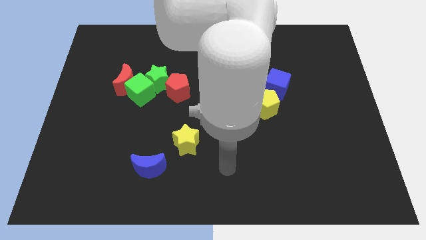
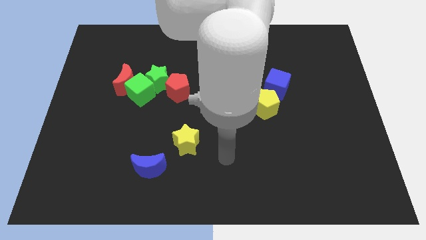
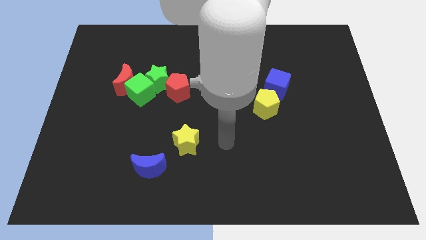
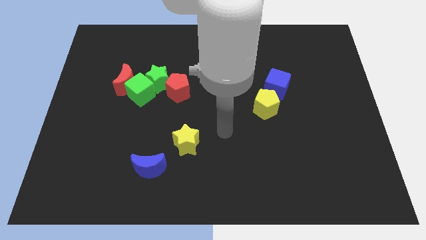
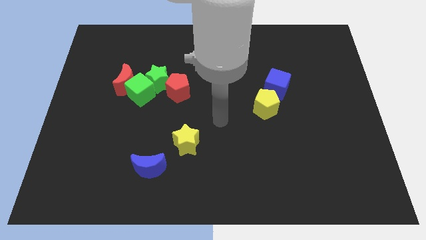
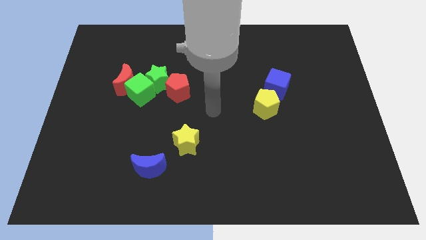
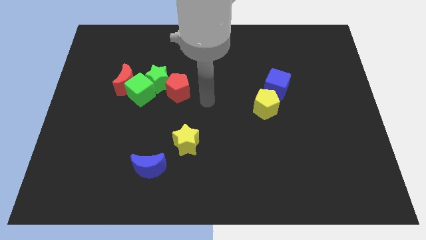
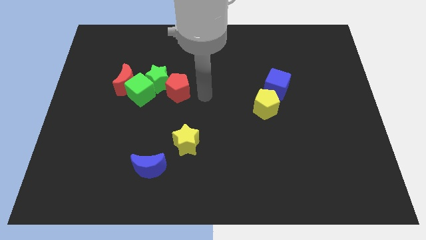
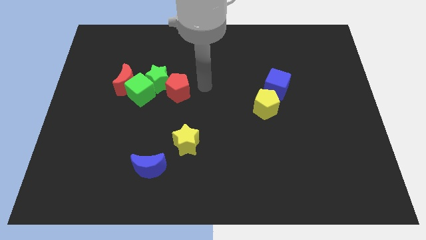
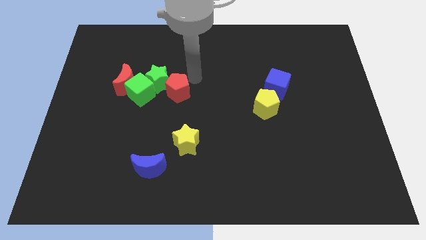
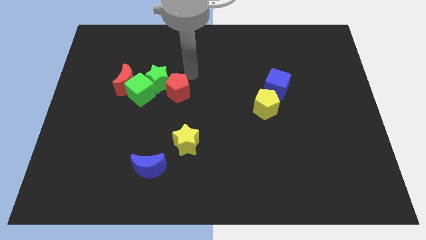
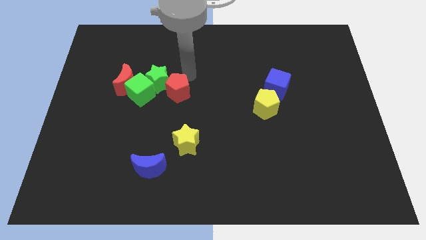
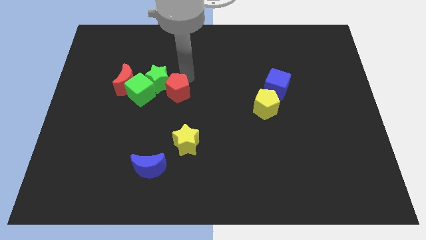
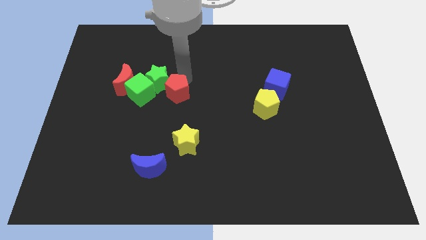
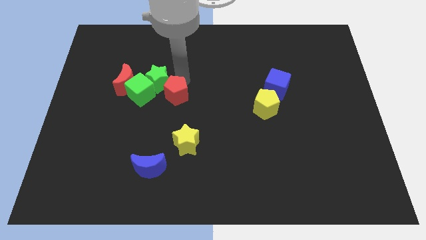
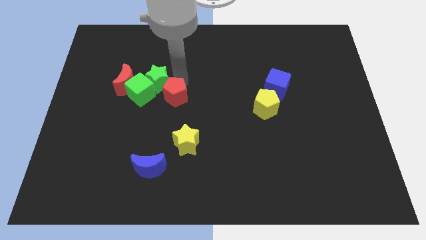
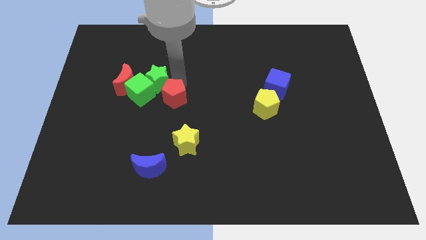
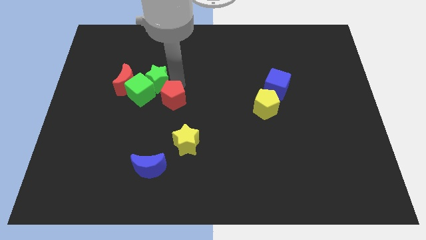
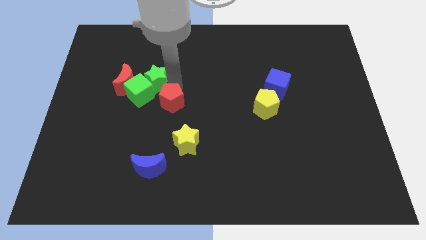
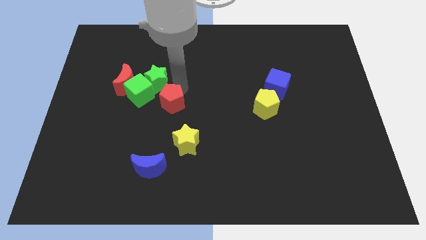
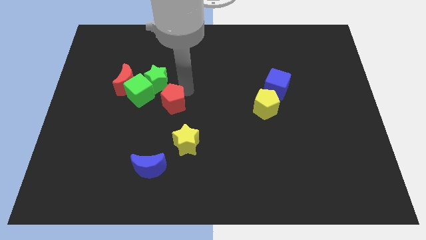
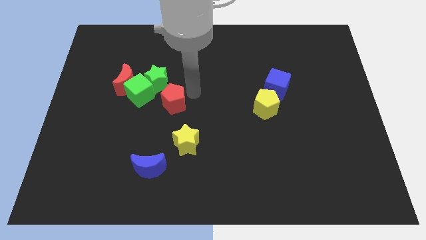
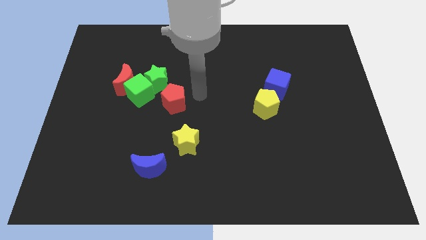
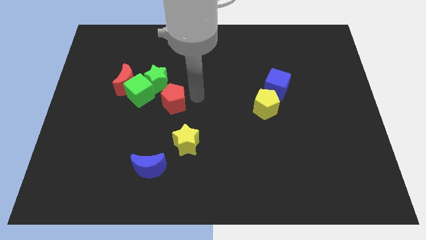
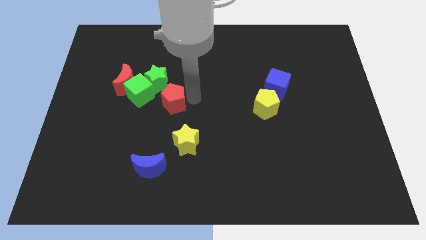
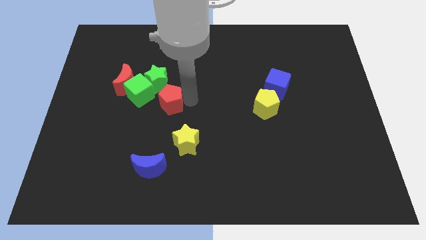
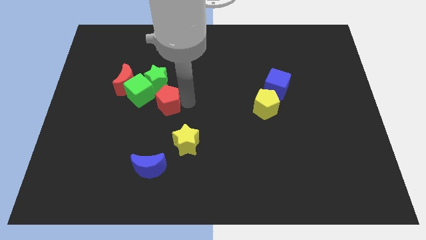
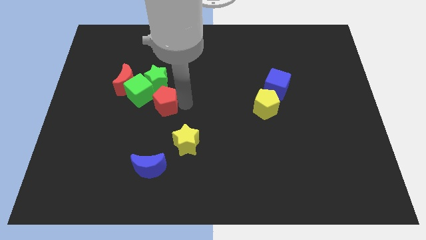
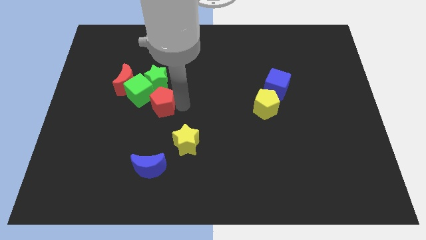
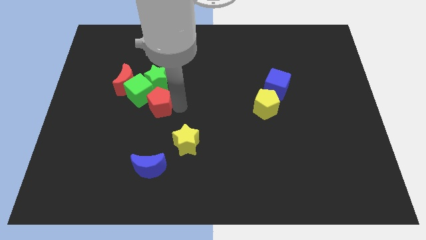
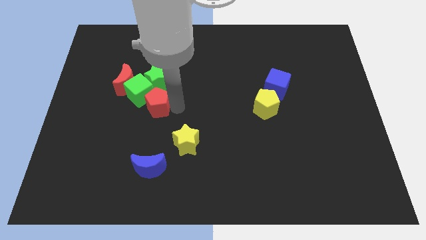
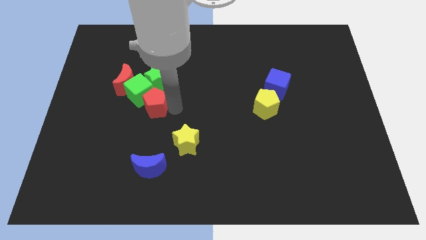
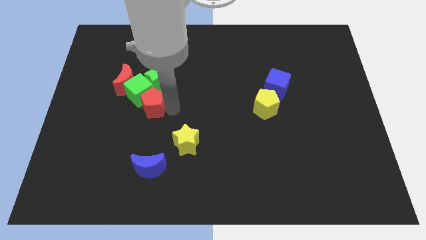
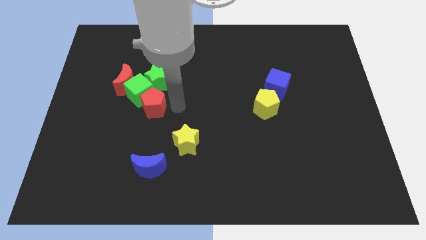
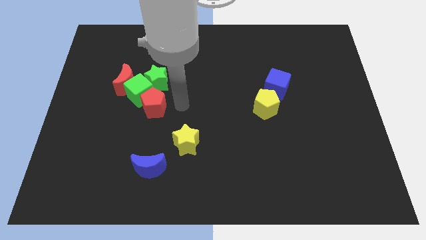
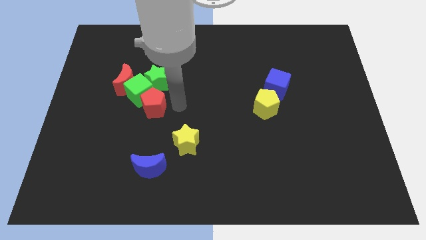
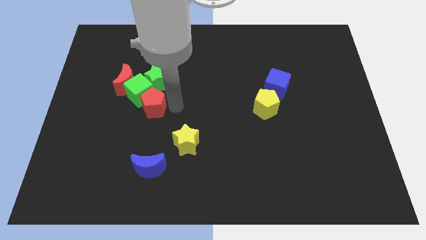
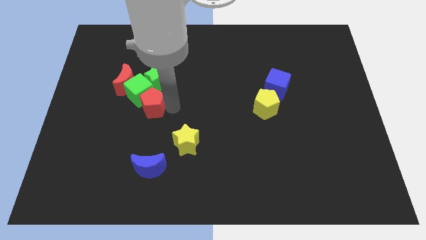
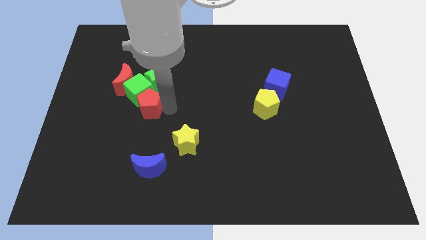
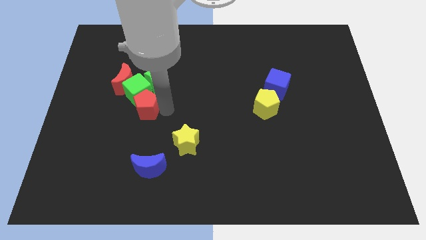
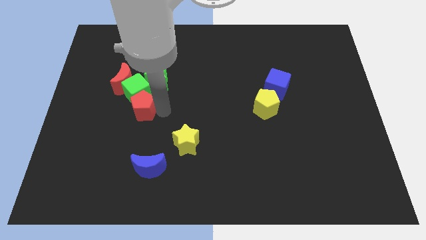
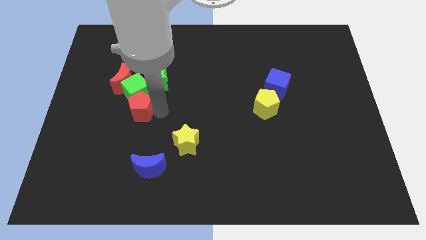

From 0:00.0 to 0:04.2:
slightly slide the red pentagon left

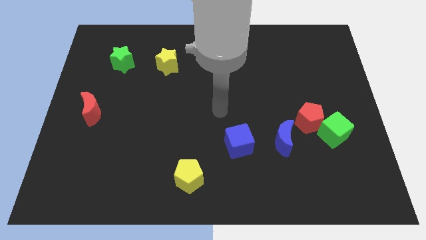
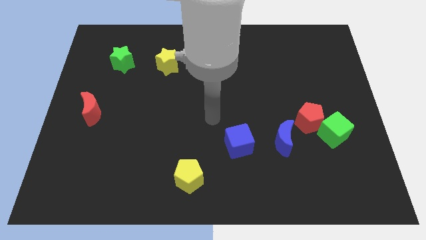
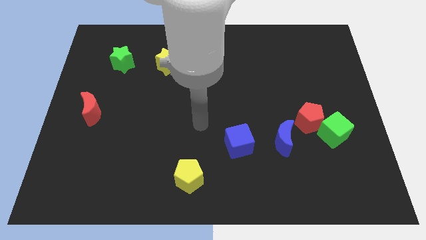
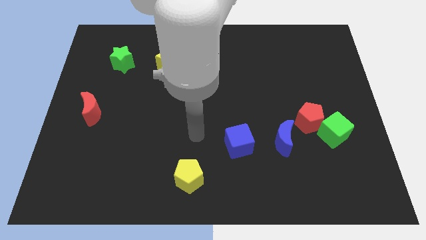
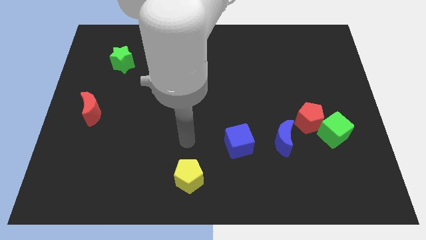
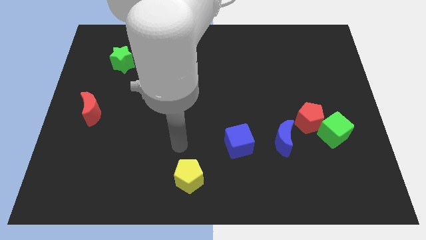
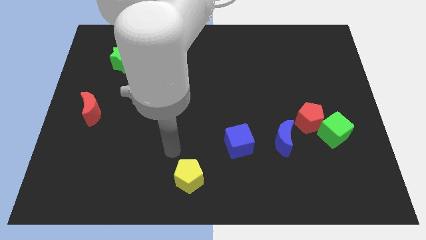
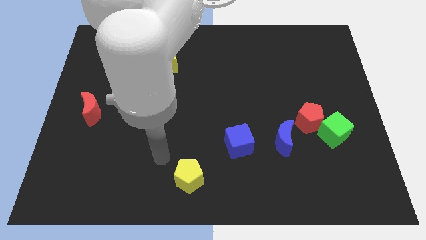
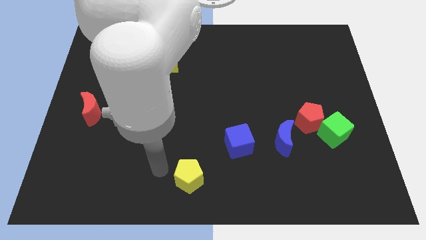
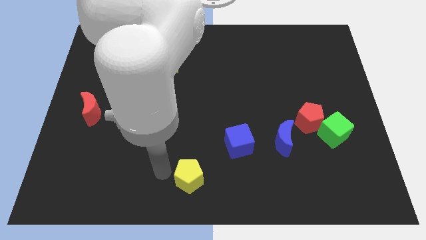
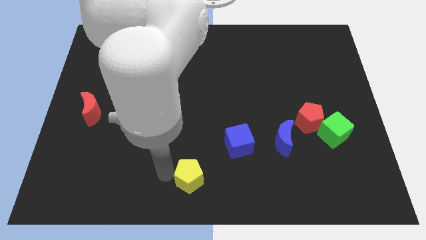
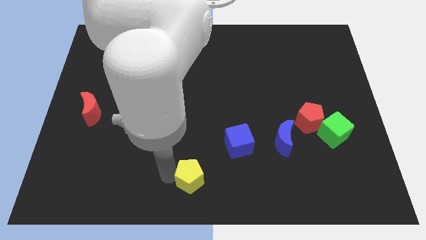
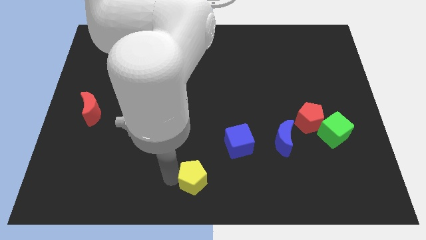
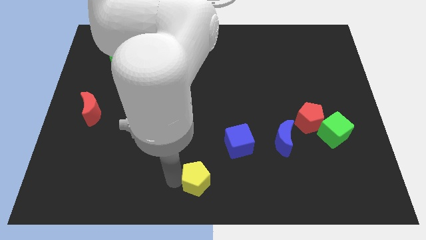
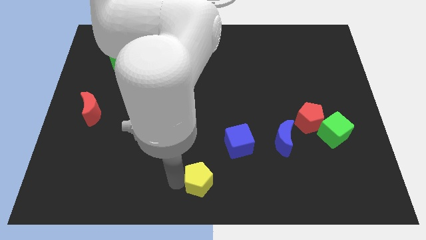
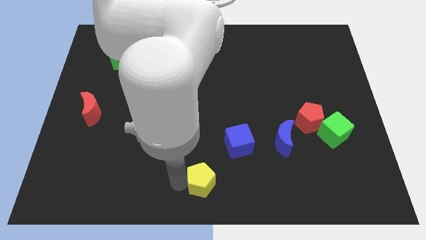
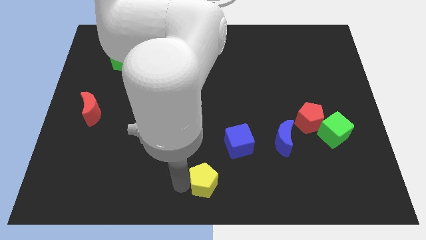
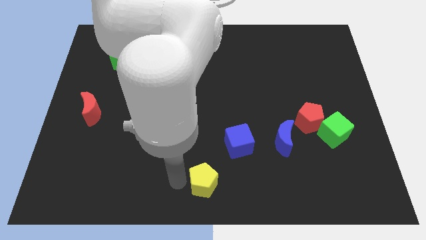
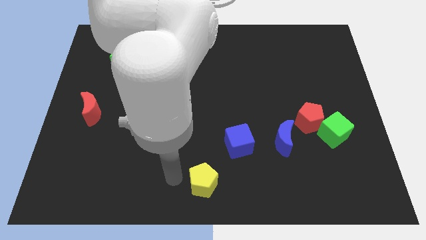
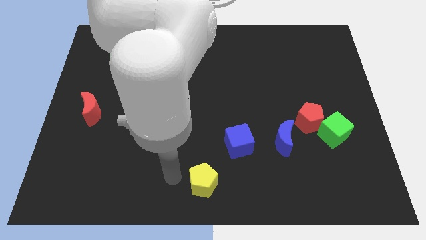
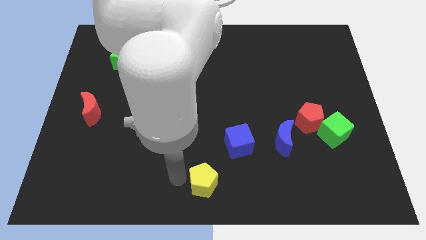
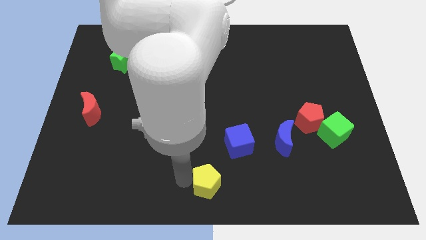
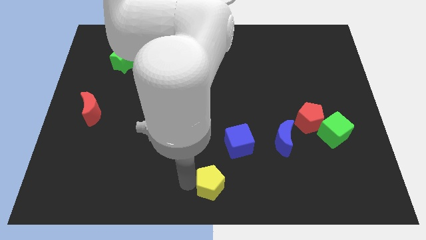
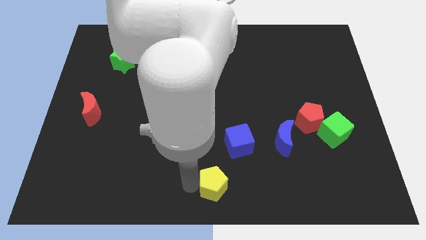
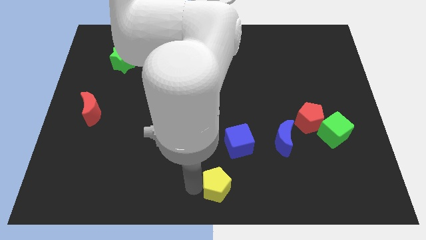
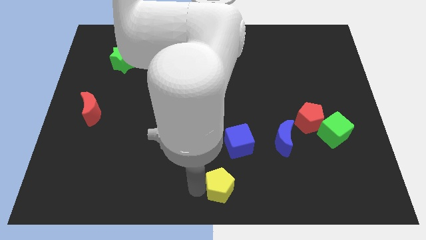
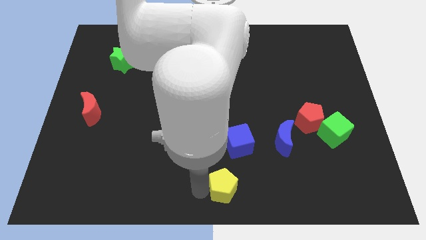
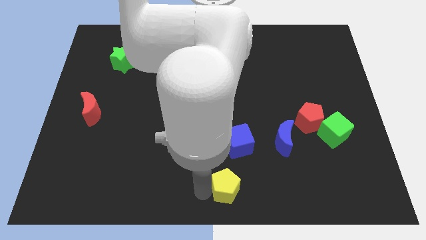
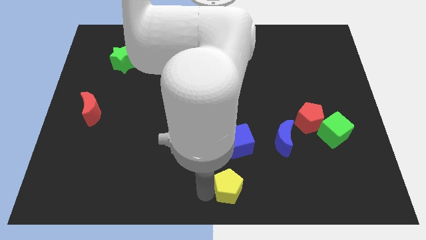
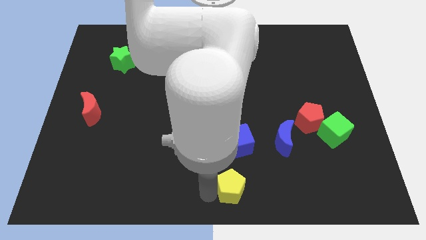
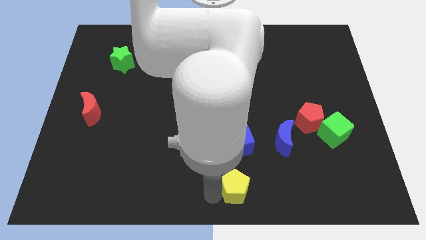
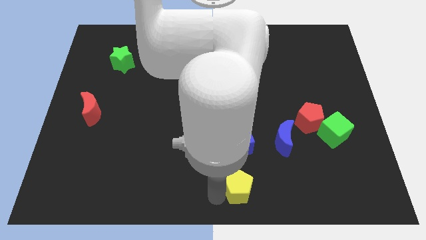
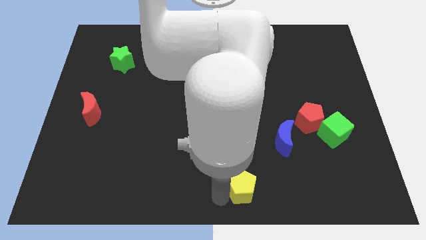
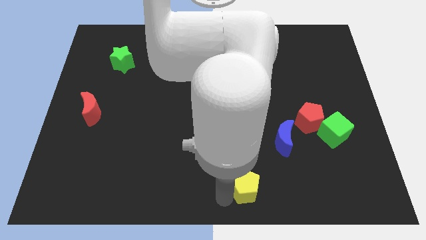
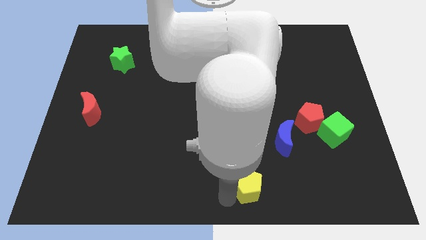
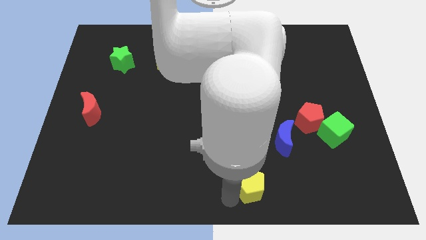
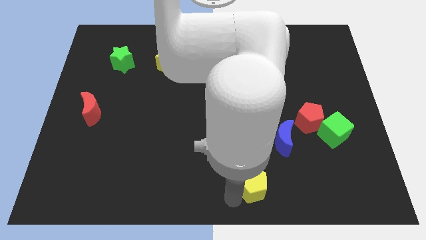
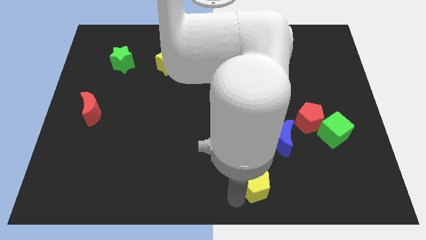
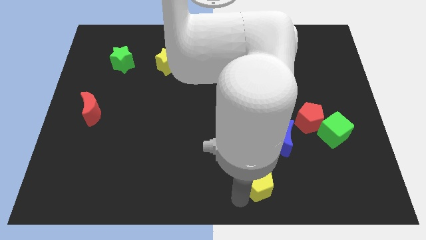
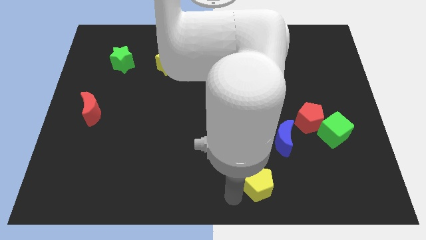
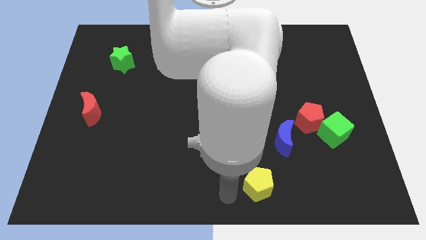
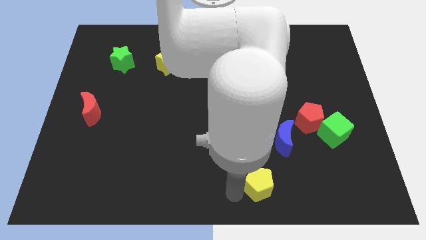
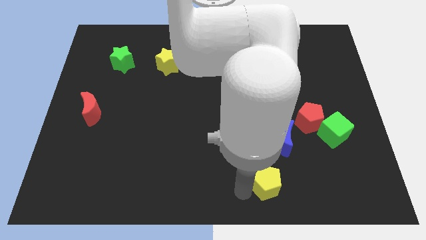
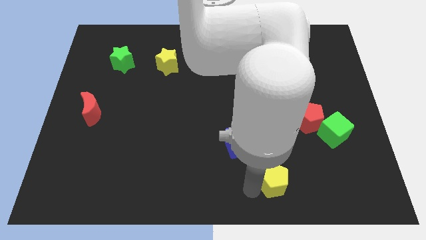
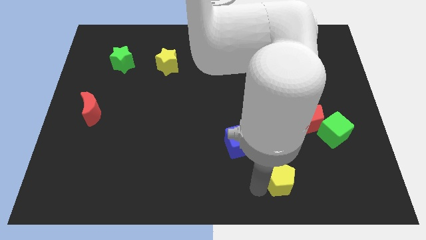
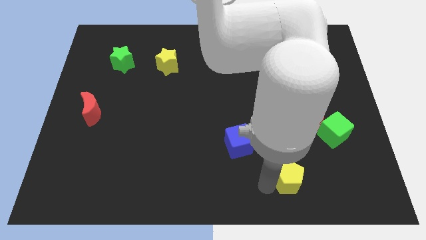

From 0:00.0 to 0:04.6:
slide the yellow pentagon to the right
